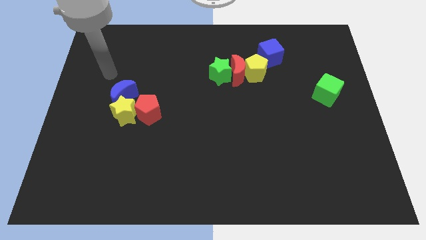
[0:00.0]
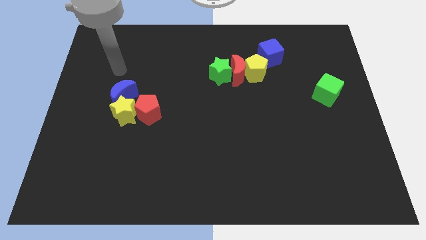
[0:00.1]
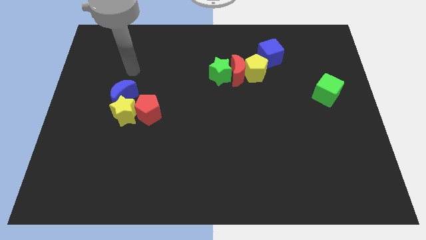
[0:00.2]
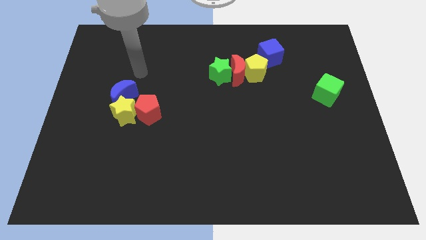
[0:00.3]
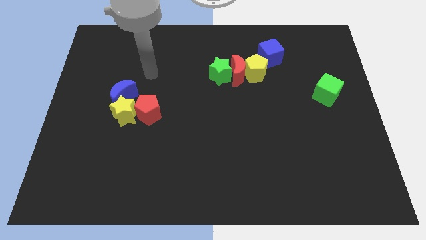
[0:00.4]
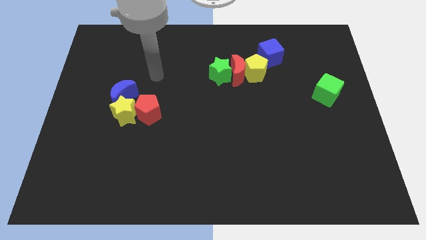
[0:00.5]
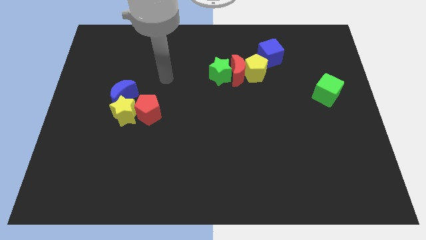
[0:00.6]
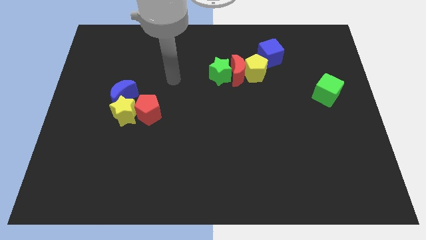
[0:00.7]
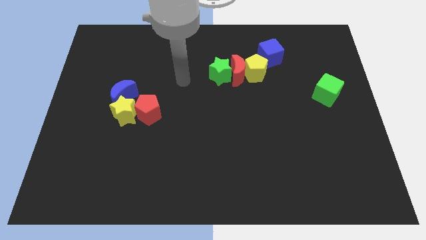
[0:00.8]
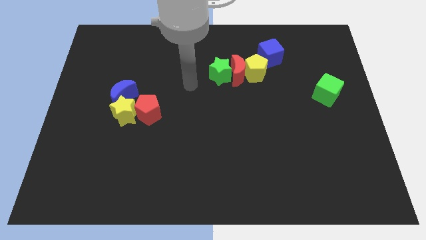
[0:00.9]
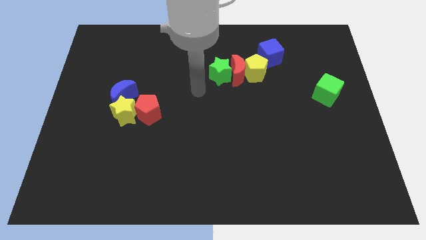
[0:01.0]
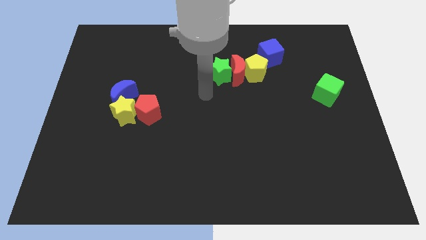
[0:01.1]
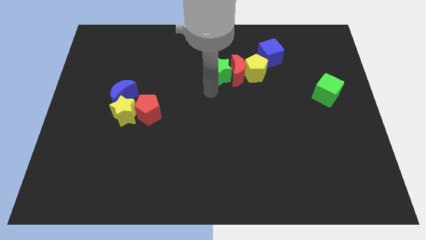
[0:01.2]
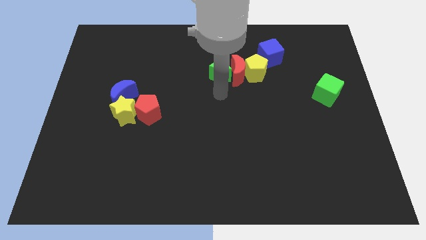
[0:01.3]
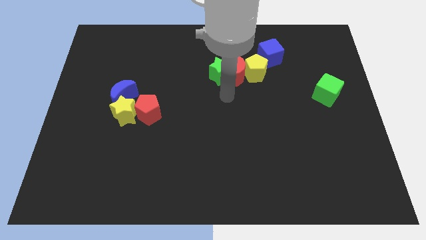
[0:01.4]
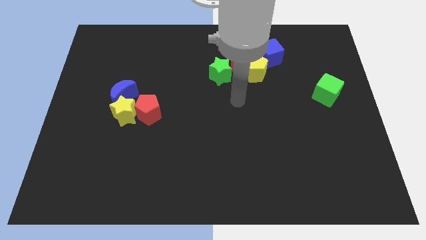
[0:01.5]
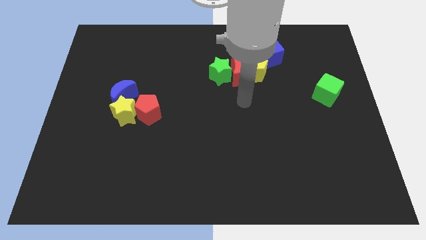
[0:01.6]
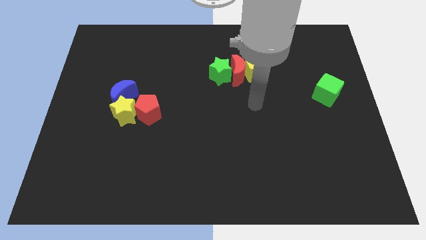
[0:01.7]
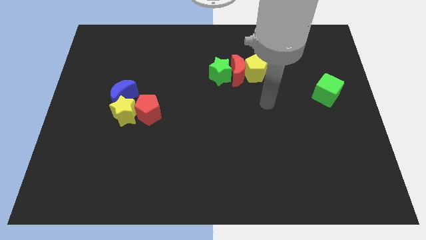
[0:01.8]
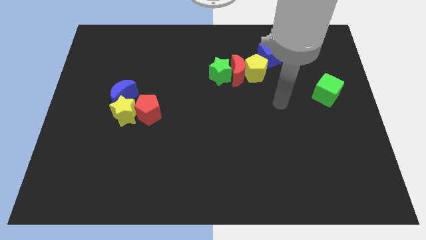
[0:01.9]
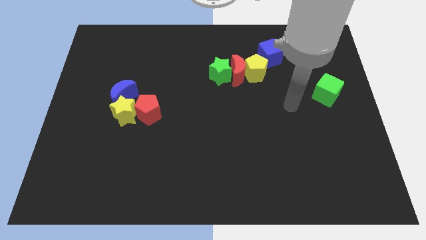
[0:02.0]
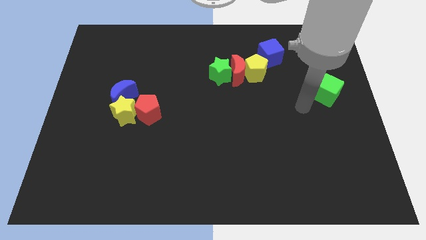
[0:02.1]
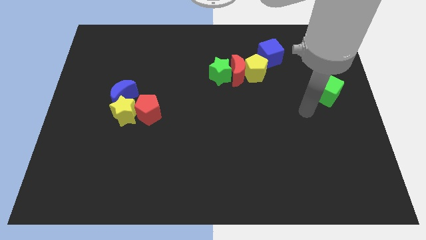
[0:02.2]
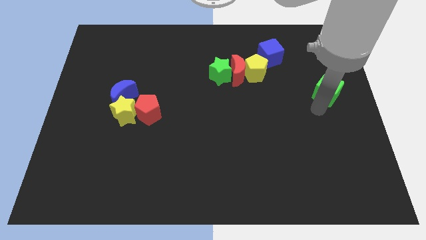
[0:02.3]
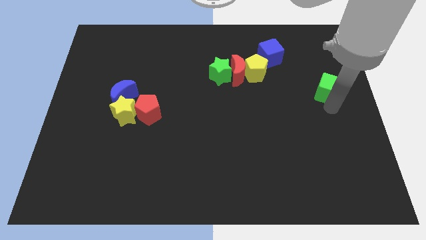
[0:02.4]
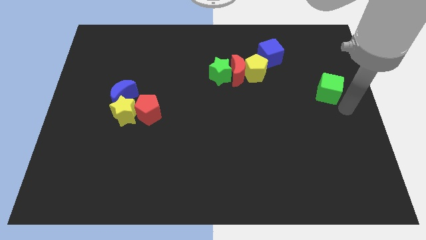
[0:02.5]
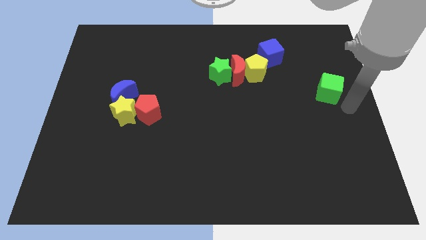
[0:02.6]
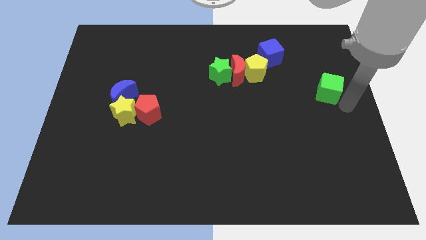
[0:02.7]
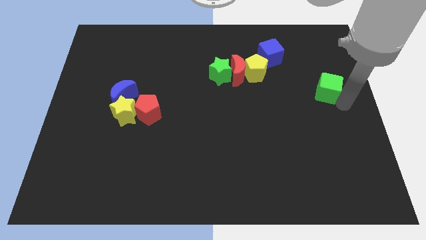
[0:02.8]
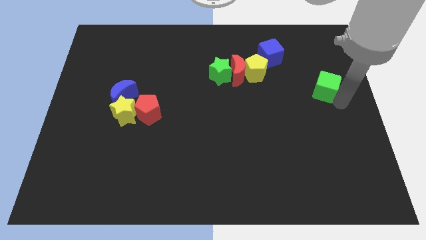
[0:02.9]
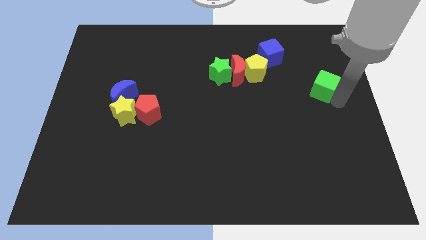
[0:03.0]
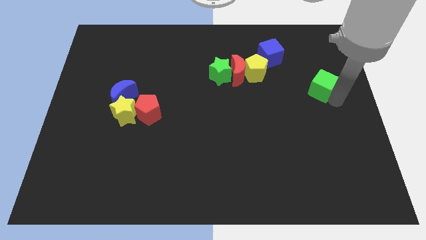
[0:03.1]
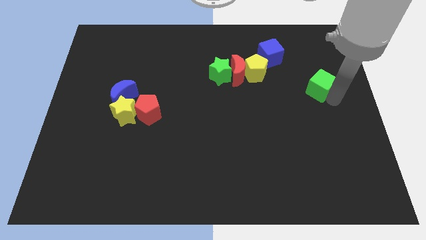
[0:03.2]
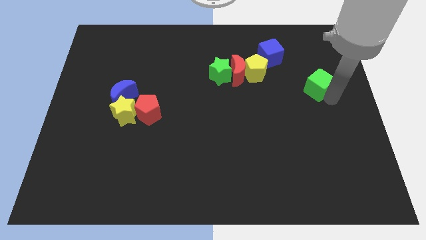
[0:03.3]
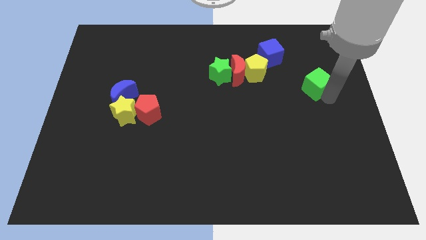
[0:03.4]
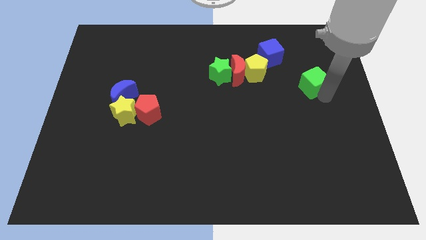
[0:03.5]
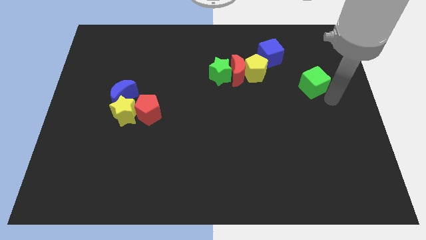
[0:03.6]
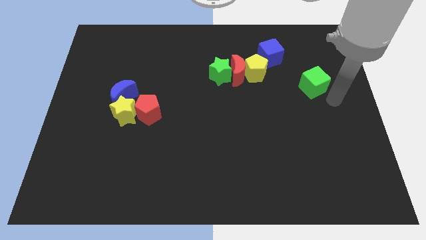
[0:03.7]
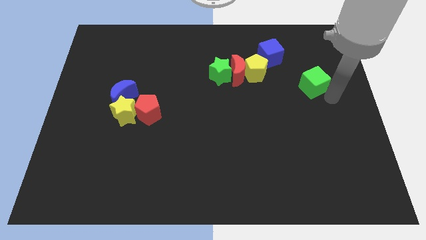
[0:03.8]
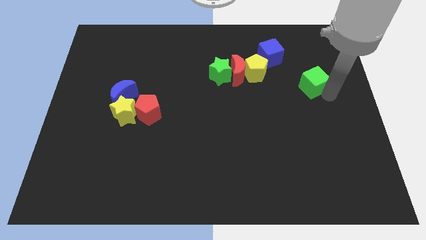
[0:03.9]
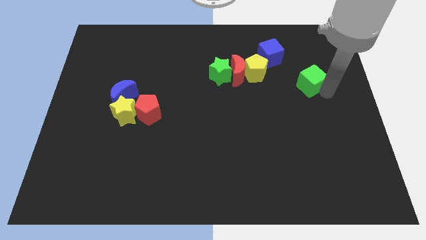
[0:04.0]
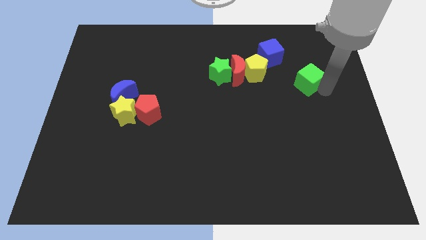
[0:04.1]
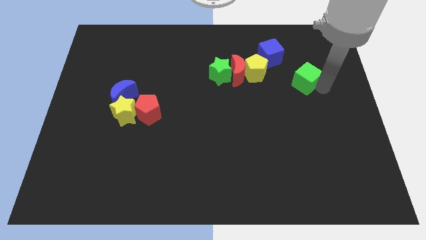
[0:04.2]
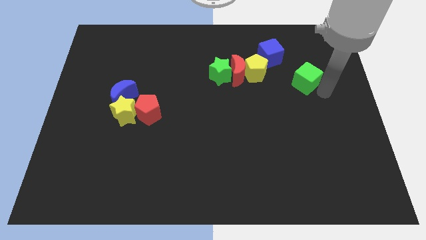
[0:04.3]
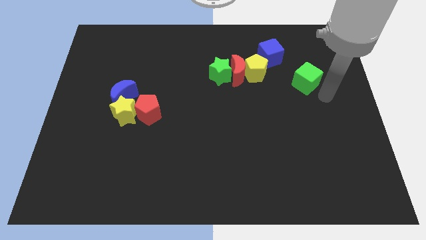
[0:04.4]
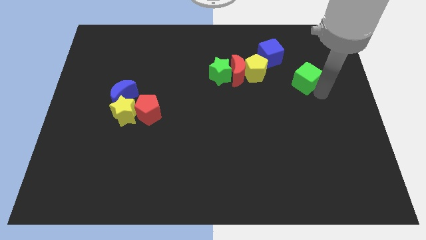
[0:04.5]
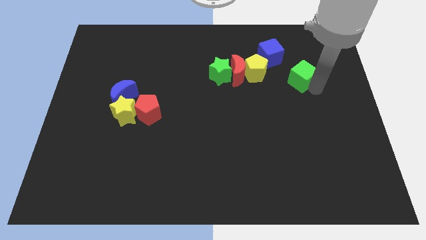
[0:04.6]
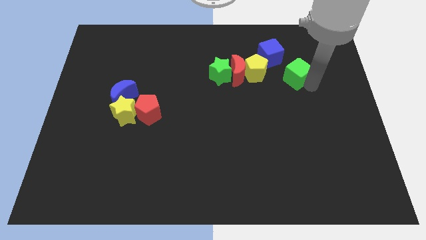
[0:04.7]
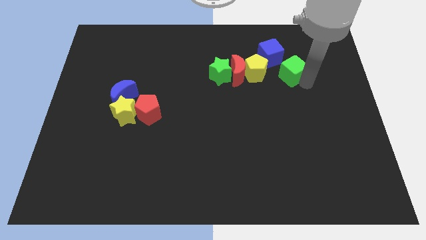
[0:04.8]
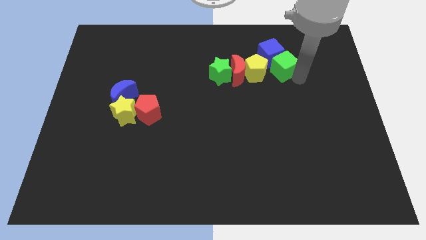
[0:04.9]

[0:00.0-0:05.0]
push the green cube to the blue cube

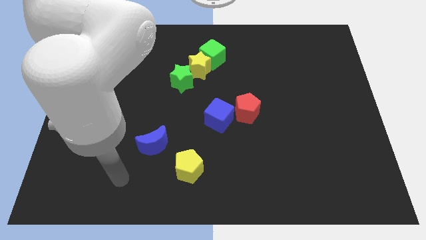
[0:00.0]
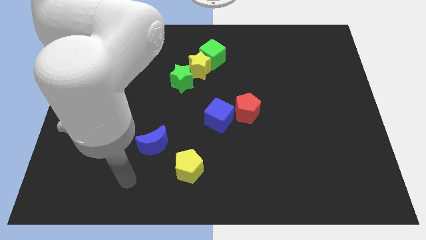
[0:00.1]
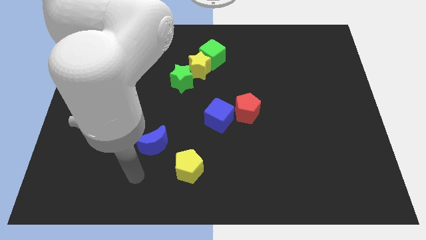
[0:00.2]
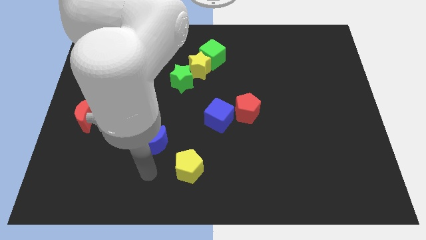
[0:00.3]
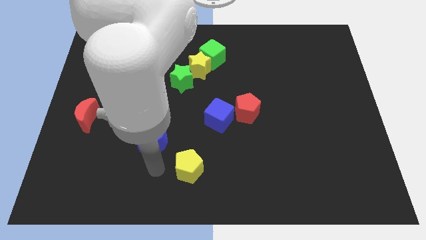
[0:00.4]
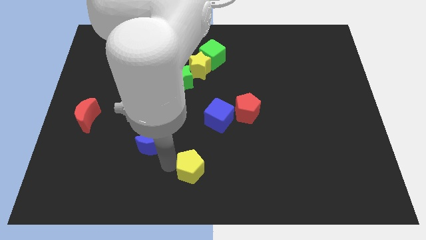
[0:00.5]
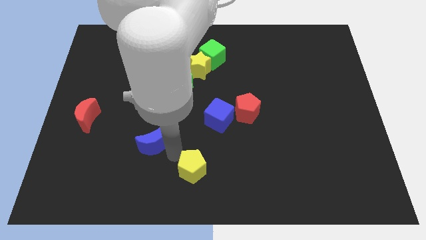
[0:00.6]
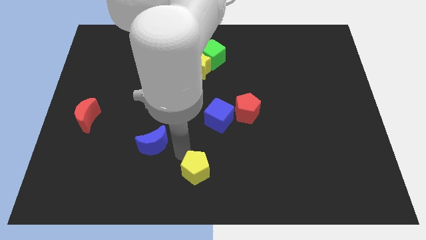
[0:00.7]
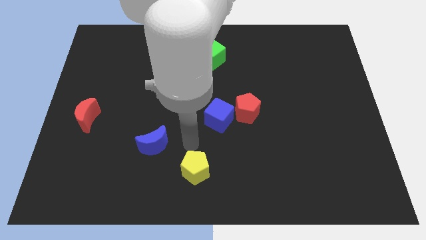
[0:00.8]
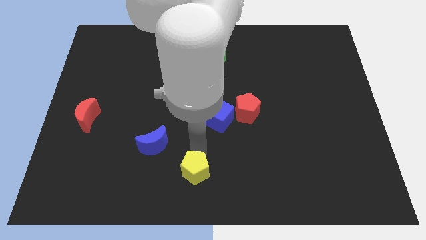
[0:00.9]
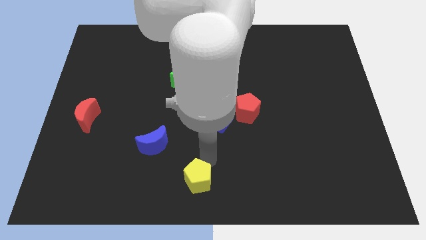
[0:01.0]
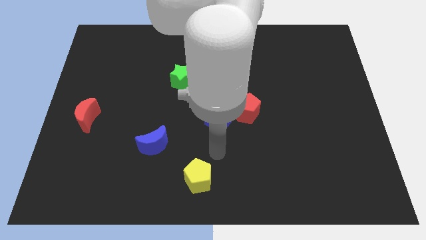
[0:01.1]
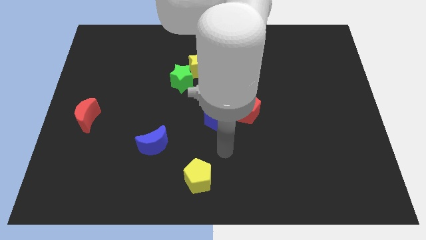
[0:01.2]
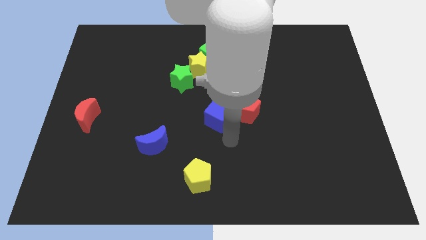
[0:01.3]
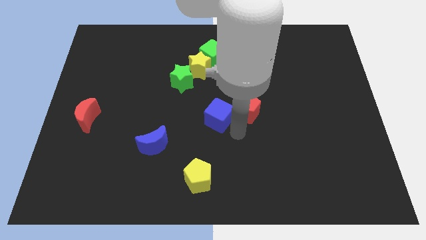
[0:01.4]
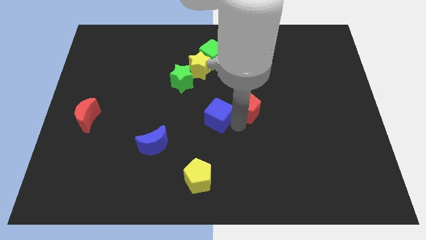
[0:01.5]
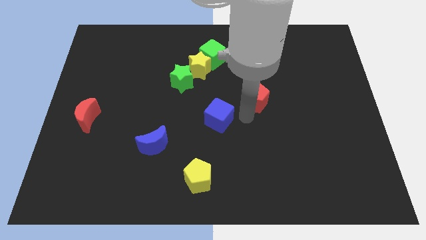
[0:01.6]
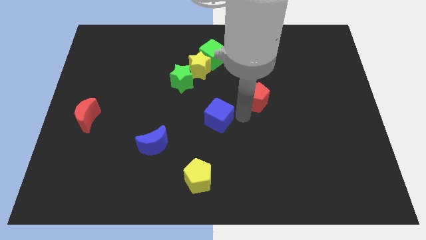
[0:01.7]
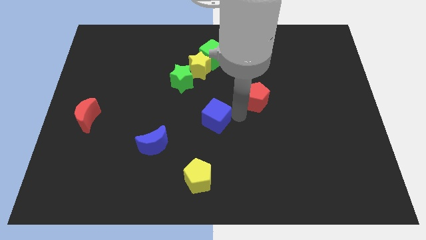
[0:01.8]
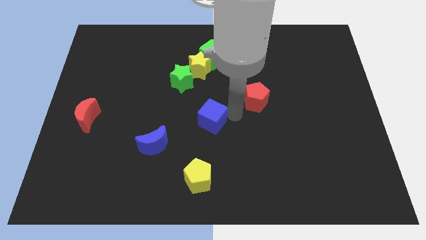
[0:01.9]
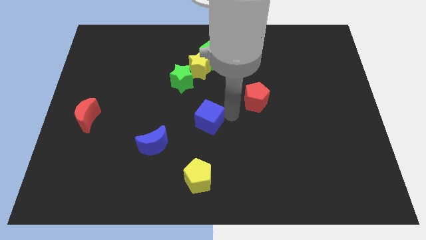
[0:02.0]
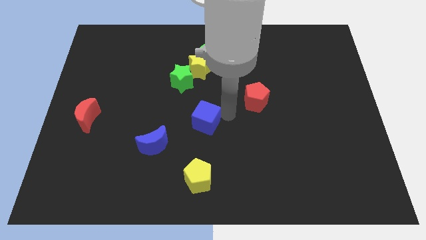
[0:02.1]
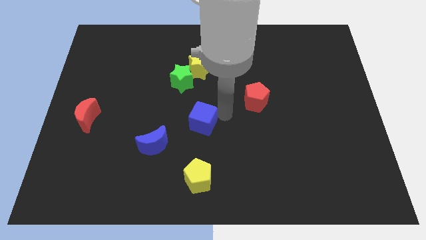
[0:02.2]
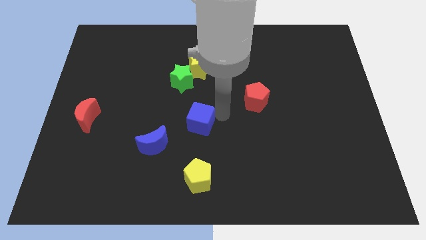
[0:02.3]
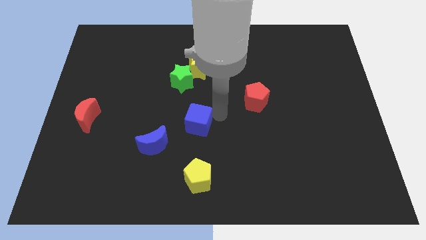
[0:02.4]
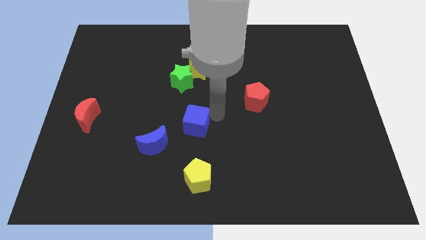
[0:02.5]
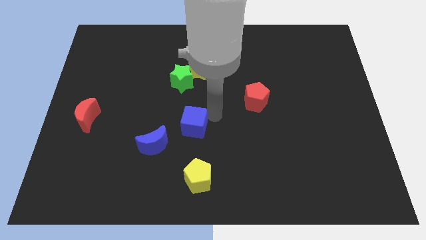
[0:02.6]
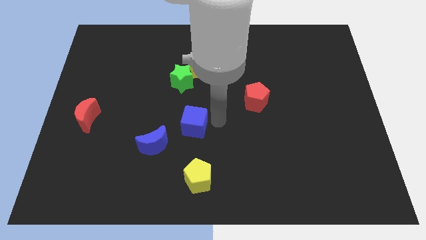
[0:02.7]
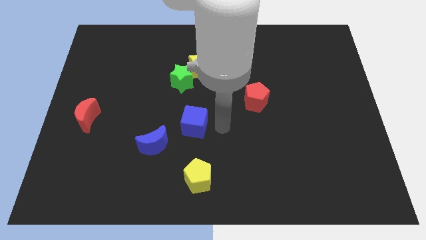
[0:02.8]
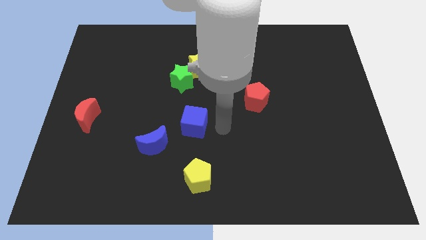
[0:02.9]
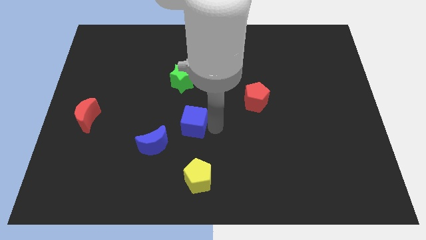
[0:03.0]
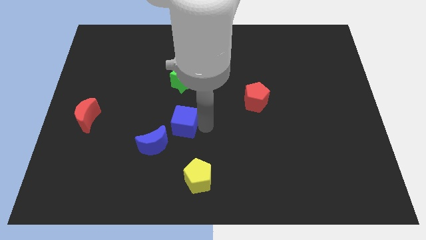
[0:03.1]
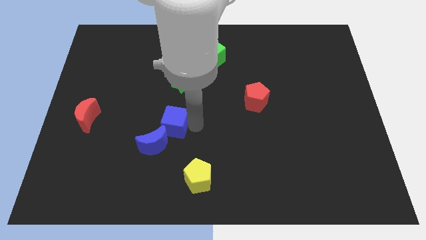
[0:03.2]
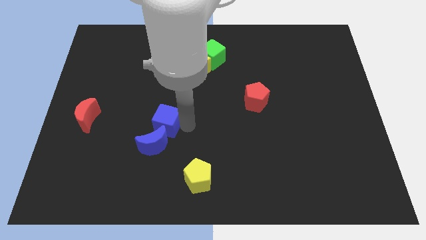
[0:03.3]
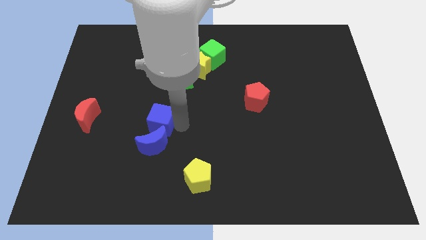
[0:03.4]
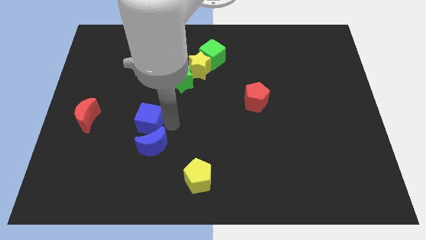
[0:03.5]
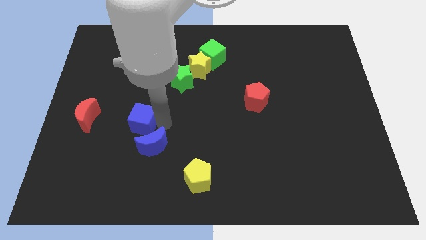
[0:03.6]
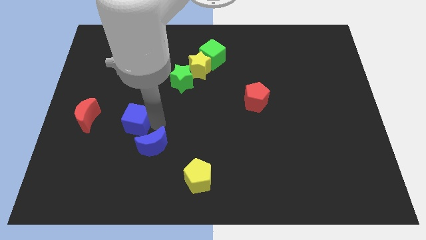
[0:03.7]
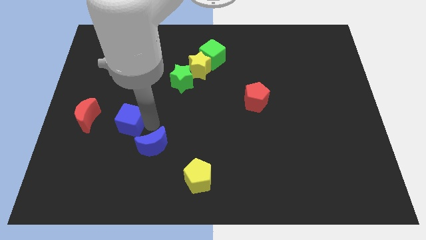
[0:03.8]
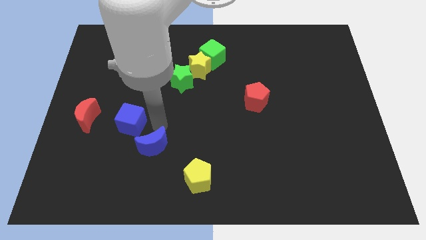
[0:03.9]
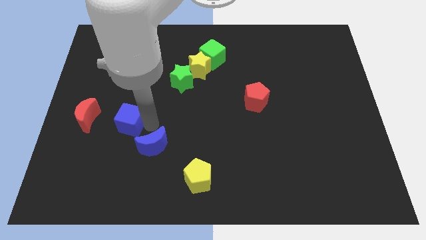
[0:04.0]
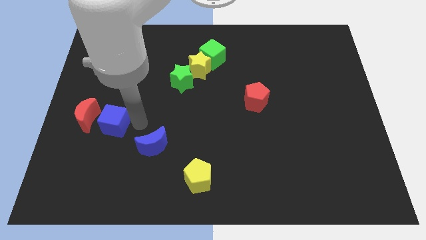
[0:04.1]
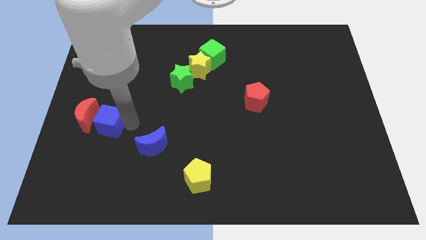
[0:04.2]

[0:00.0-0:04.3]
move the blue cube to the red moon
